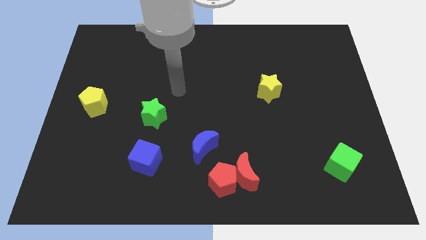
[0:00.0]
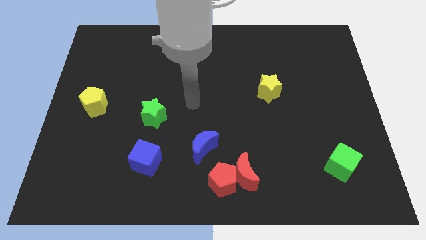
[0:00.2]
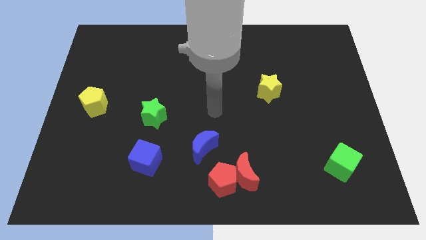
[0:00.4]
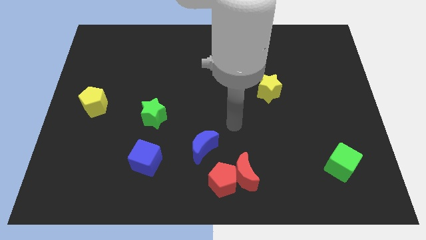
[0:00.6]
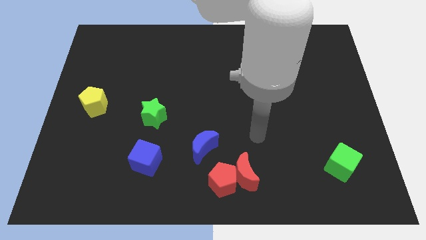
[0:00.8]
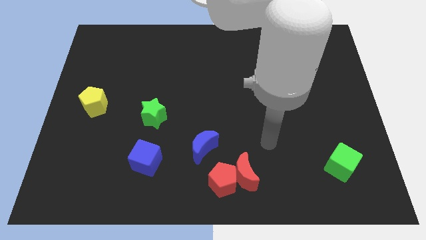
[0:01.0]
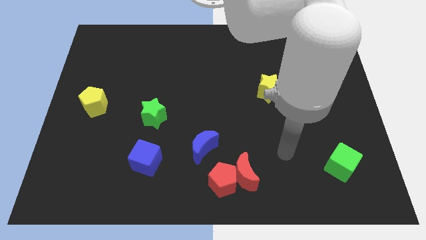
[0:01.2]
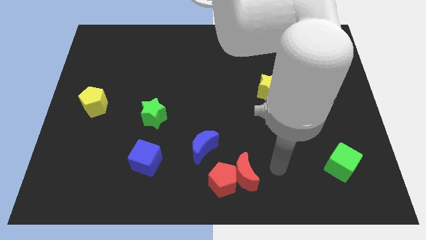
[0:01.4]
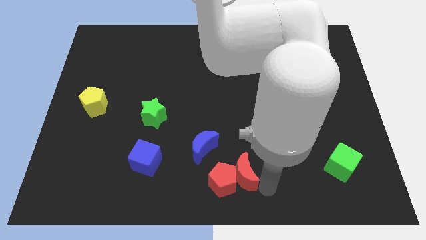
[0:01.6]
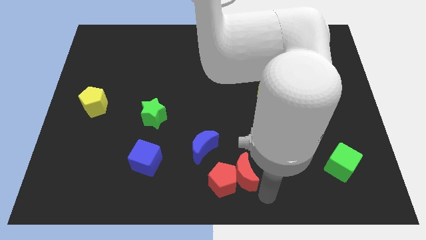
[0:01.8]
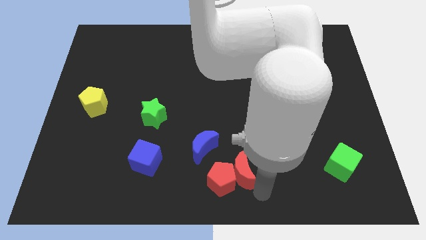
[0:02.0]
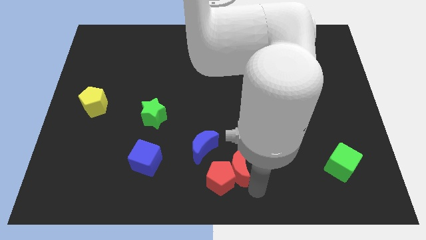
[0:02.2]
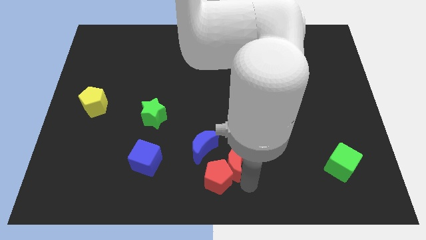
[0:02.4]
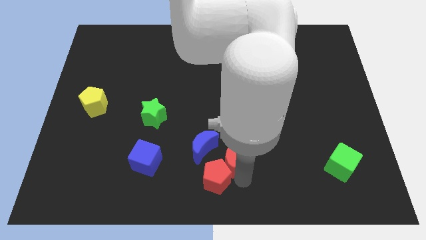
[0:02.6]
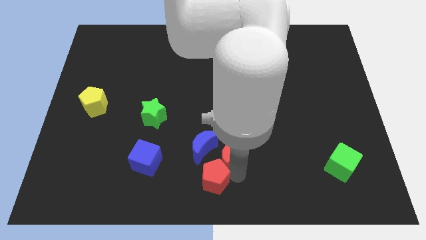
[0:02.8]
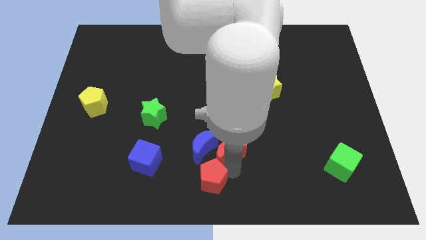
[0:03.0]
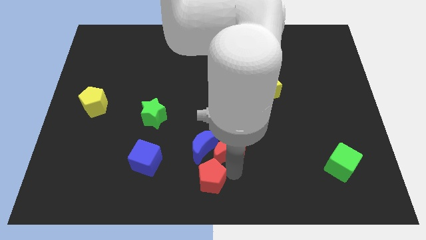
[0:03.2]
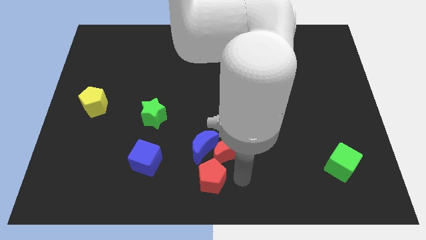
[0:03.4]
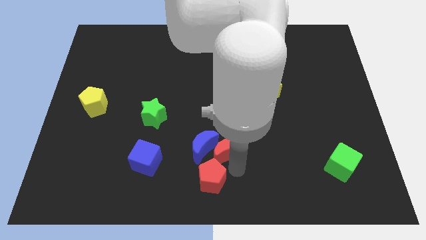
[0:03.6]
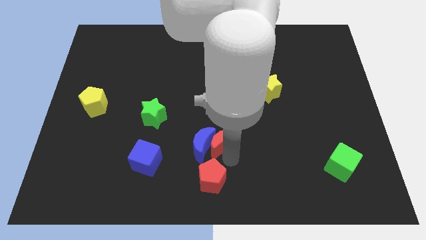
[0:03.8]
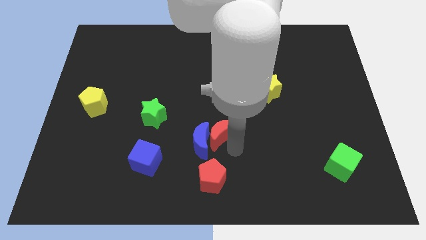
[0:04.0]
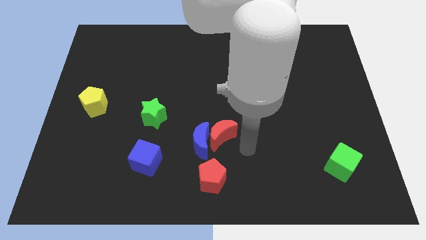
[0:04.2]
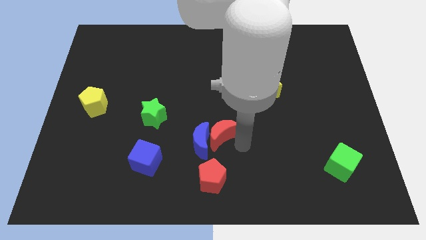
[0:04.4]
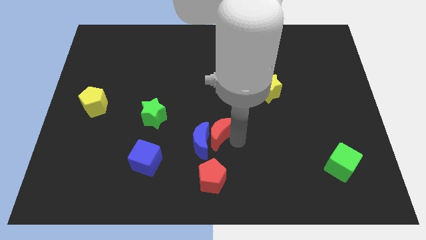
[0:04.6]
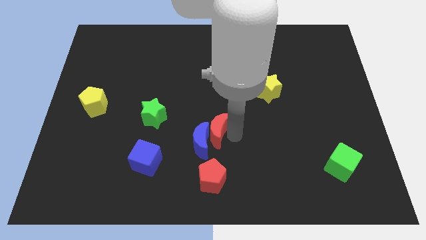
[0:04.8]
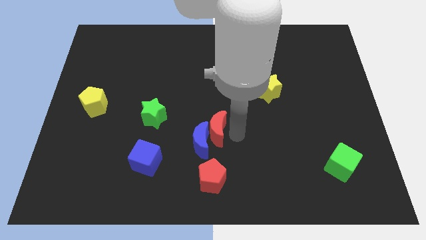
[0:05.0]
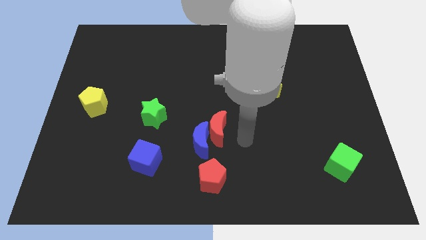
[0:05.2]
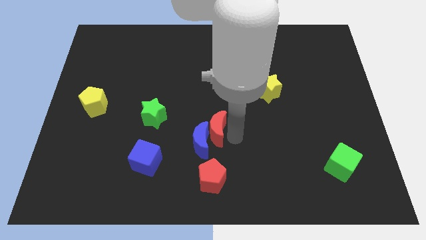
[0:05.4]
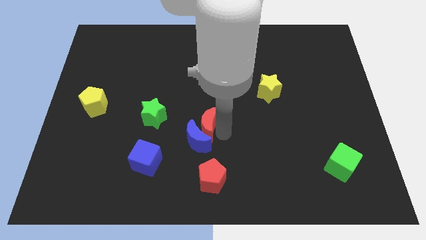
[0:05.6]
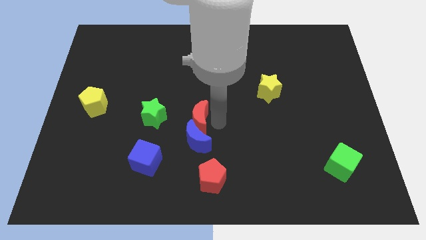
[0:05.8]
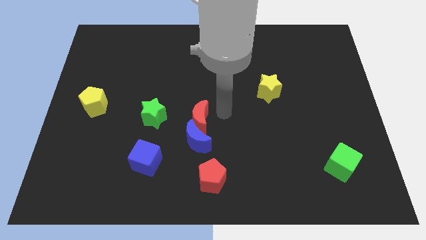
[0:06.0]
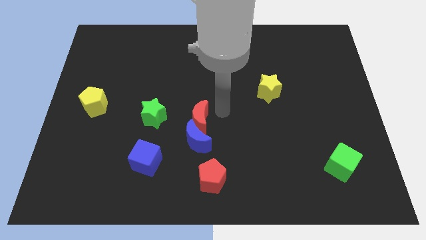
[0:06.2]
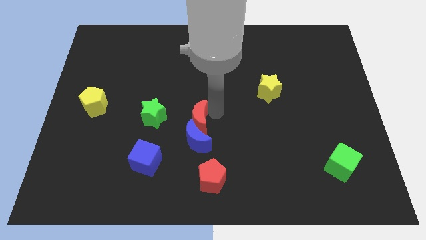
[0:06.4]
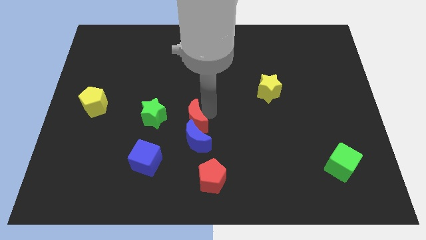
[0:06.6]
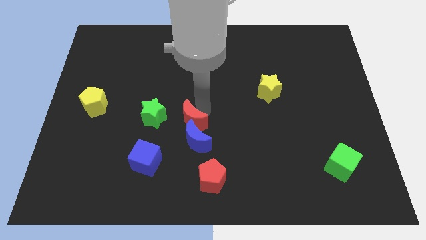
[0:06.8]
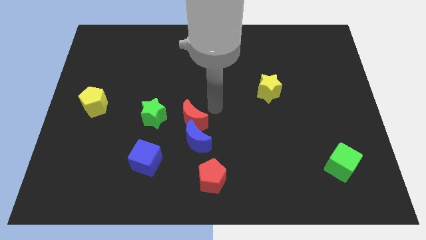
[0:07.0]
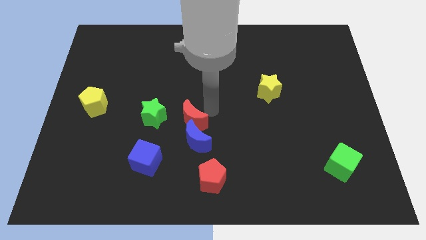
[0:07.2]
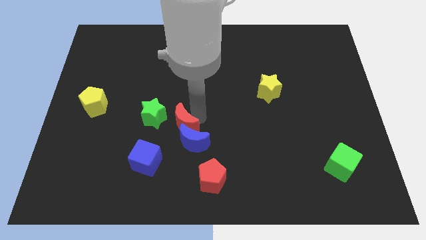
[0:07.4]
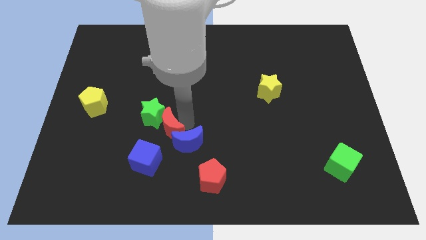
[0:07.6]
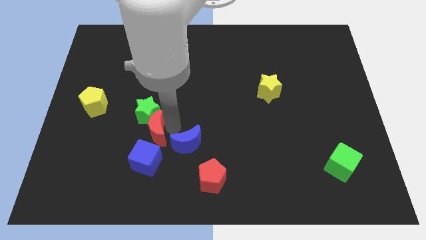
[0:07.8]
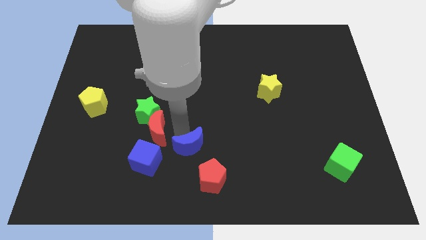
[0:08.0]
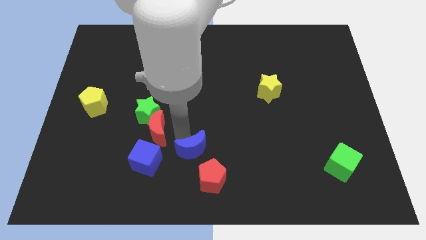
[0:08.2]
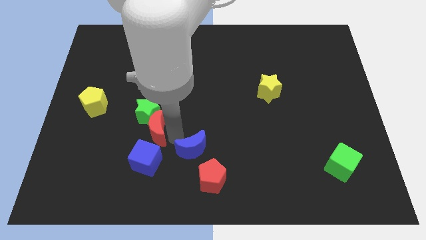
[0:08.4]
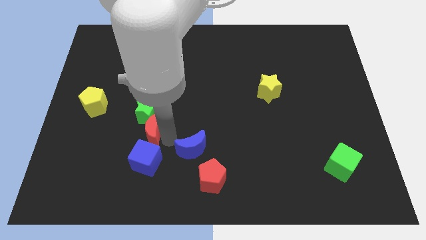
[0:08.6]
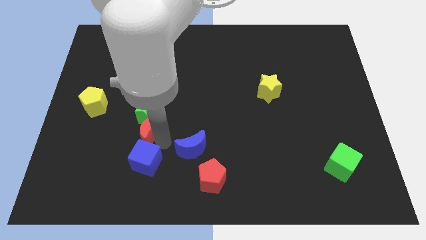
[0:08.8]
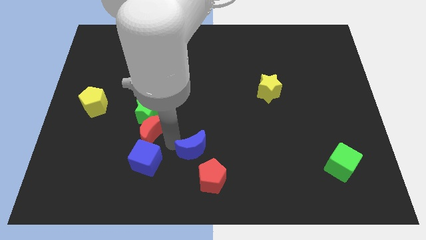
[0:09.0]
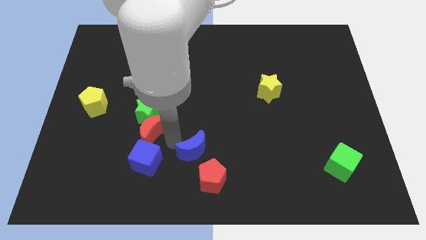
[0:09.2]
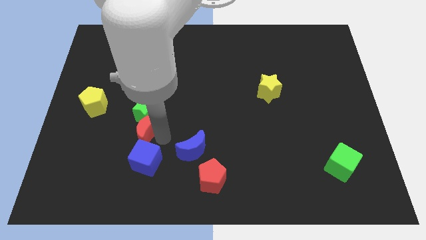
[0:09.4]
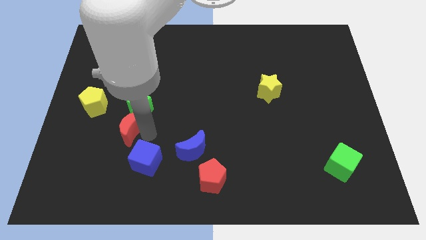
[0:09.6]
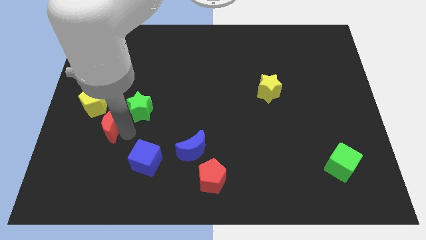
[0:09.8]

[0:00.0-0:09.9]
slide the red moon to the left of the green star

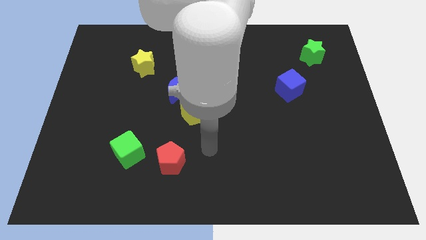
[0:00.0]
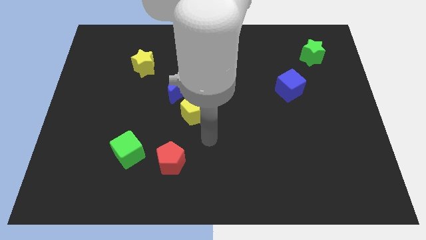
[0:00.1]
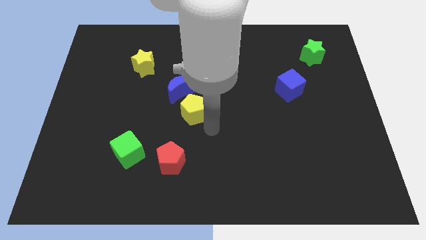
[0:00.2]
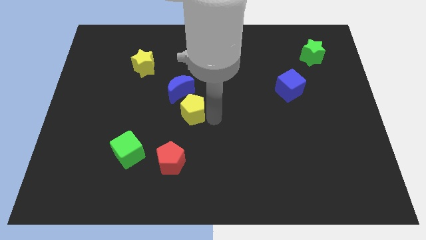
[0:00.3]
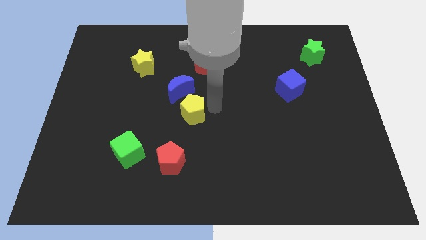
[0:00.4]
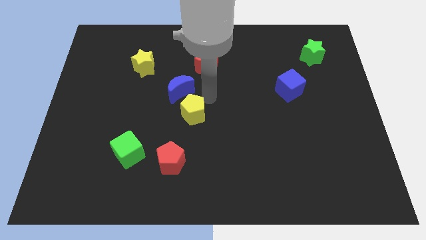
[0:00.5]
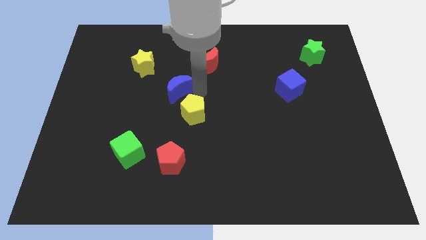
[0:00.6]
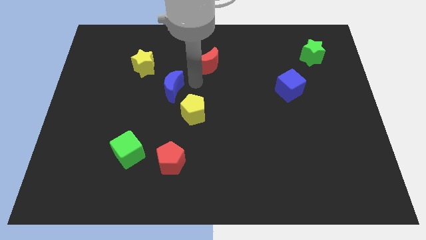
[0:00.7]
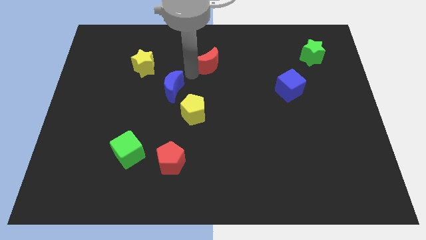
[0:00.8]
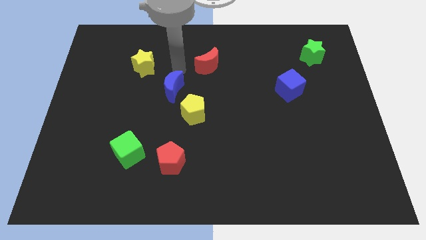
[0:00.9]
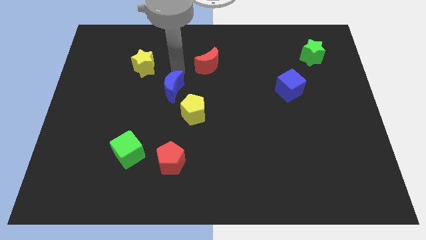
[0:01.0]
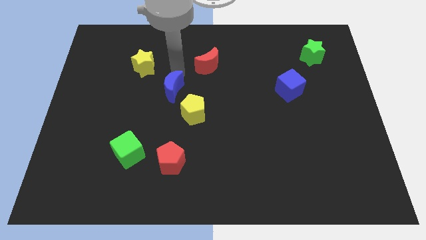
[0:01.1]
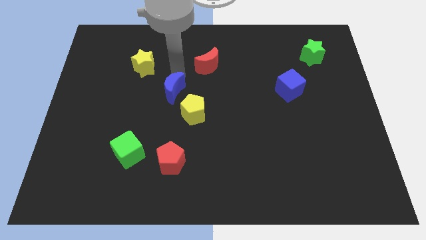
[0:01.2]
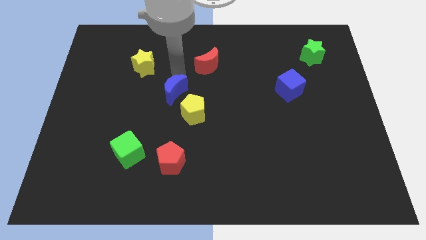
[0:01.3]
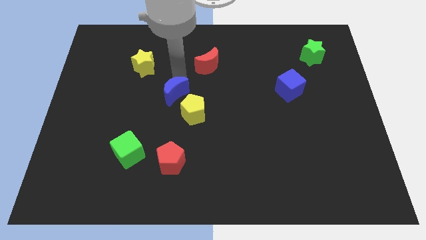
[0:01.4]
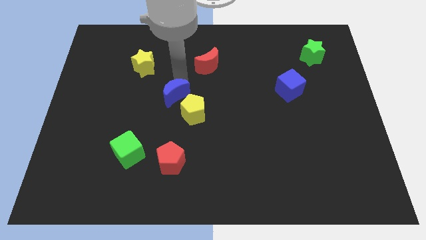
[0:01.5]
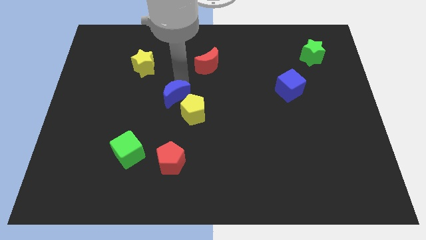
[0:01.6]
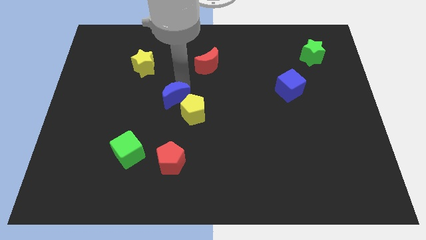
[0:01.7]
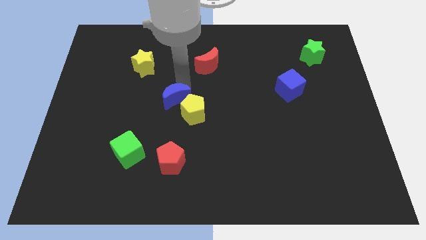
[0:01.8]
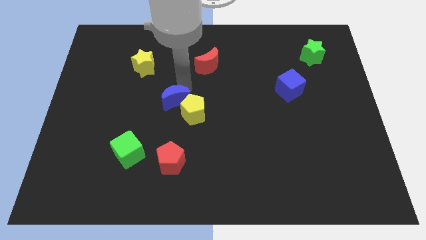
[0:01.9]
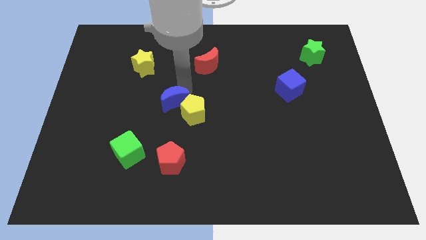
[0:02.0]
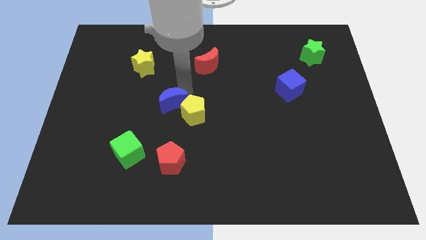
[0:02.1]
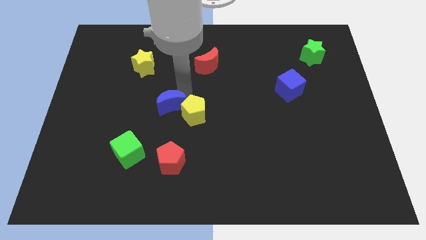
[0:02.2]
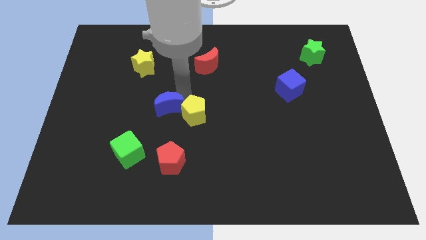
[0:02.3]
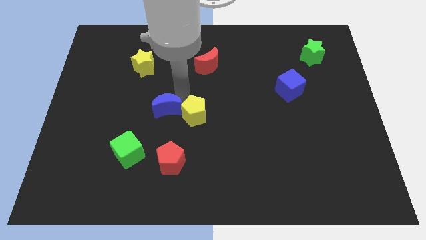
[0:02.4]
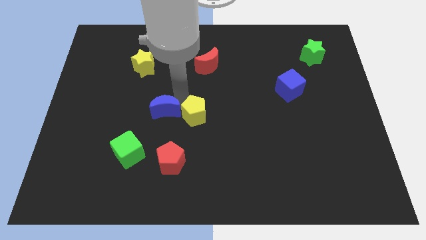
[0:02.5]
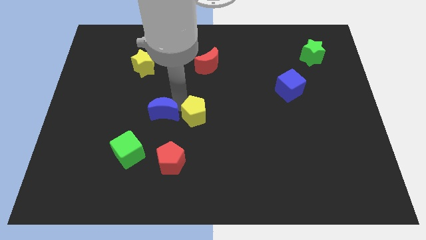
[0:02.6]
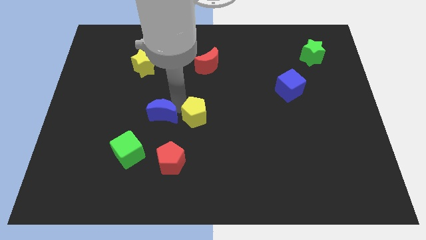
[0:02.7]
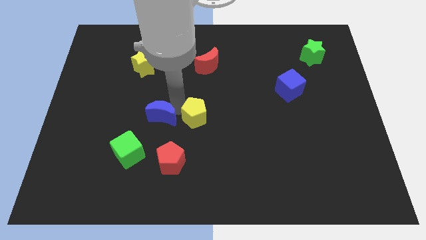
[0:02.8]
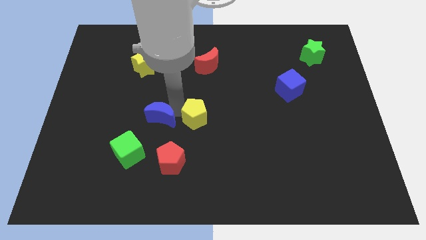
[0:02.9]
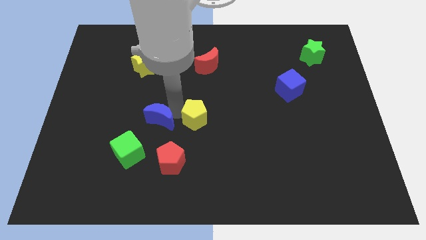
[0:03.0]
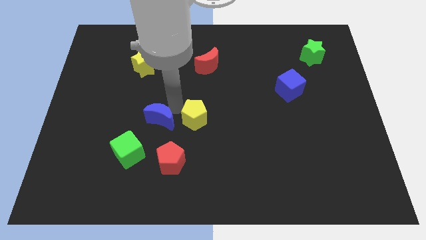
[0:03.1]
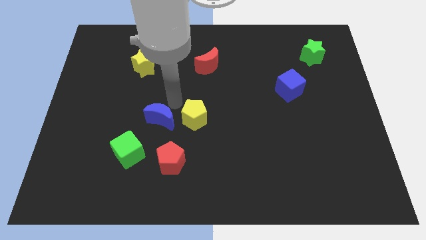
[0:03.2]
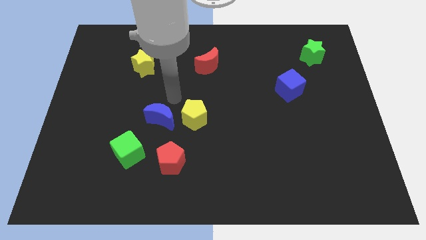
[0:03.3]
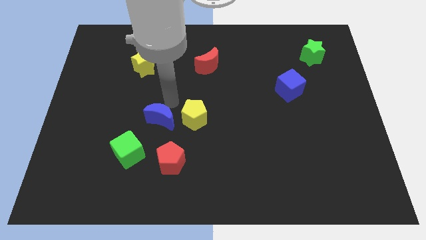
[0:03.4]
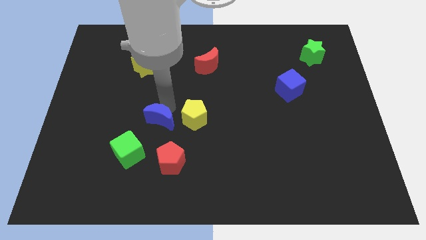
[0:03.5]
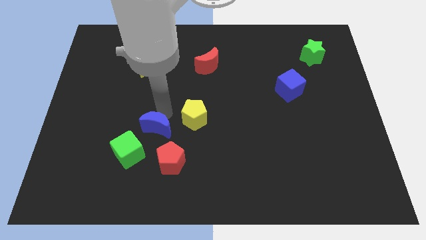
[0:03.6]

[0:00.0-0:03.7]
put the blue moon to the top left of the red pentagon
